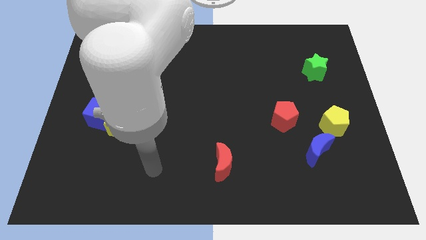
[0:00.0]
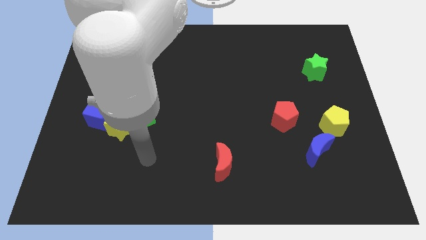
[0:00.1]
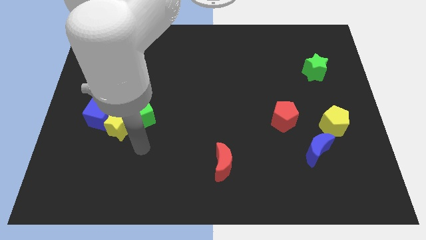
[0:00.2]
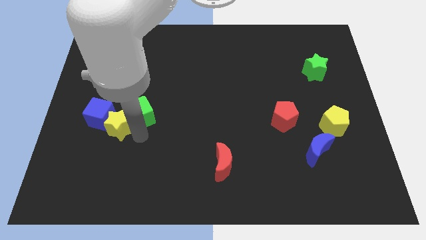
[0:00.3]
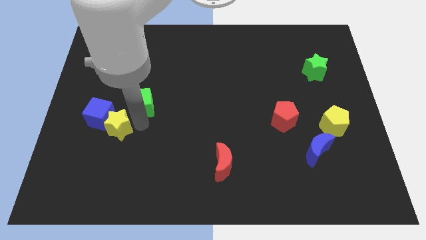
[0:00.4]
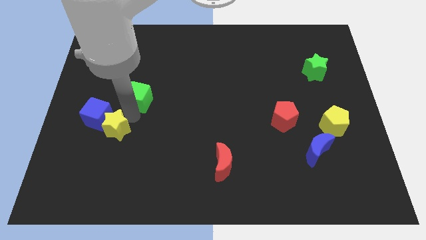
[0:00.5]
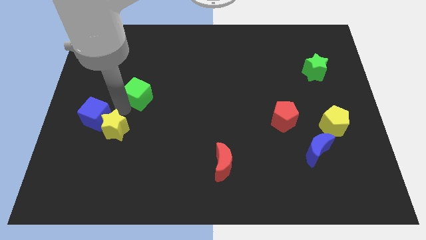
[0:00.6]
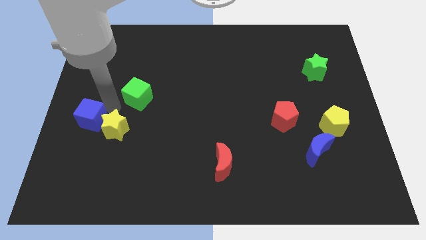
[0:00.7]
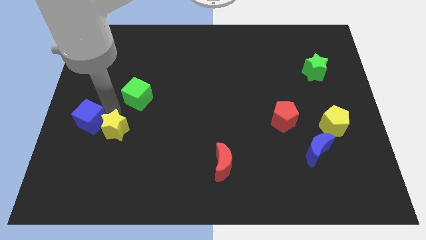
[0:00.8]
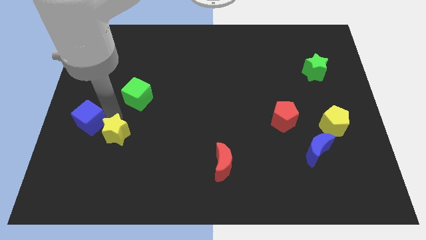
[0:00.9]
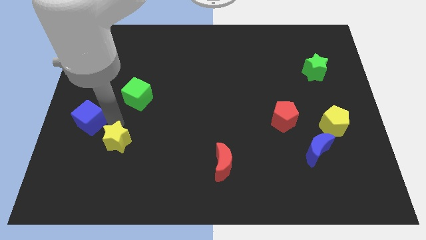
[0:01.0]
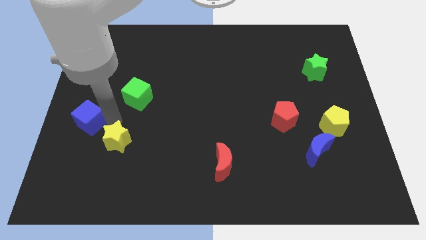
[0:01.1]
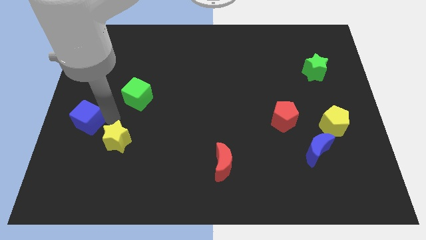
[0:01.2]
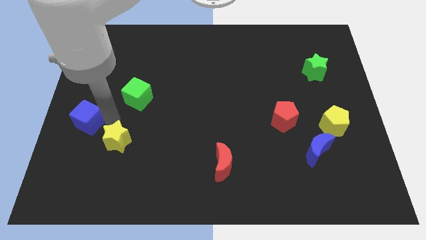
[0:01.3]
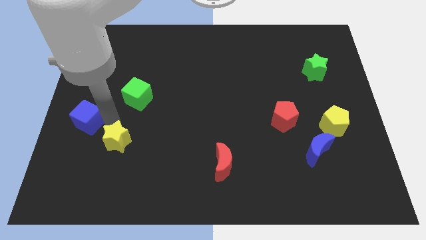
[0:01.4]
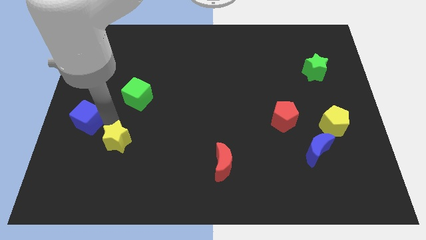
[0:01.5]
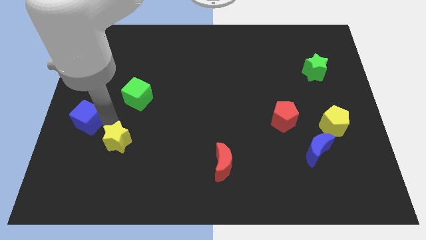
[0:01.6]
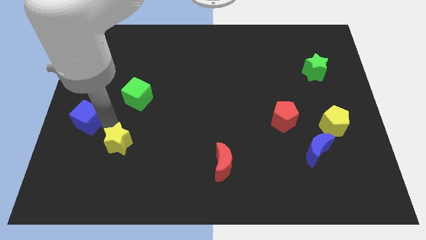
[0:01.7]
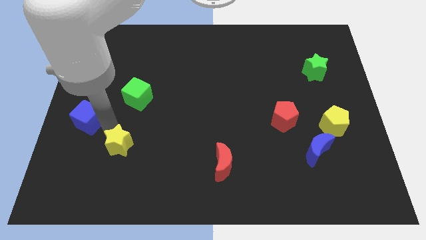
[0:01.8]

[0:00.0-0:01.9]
move the yellow star away from the green cube and blue cube

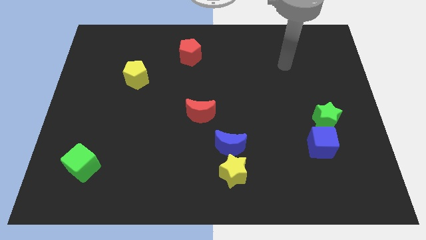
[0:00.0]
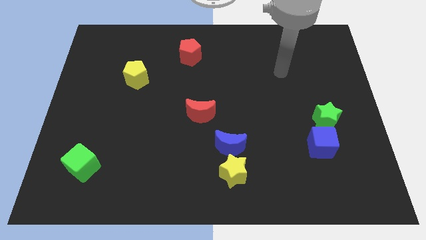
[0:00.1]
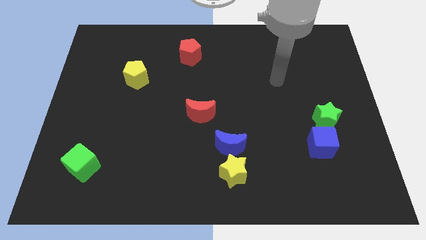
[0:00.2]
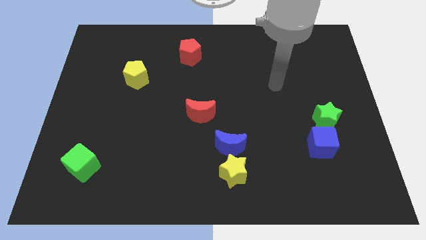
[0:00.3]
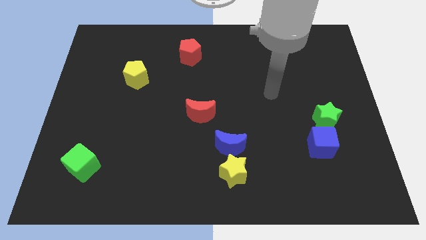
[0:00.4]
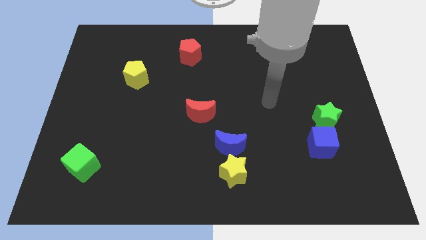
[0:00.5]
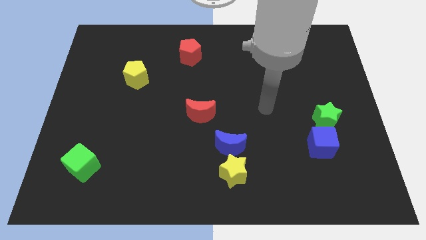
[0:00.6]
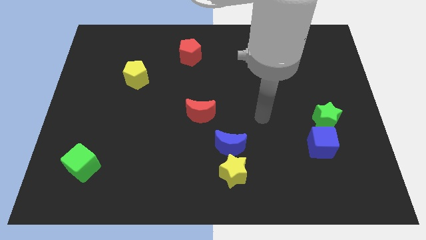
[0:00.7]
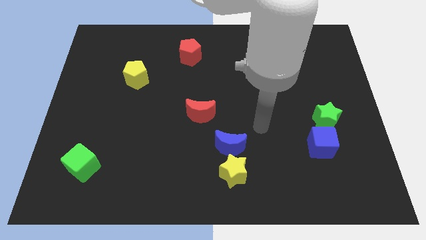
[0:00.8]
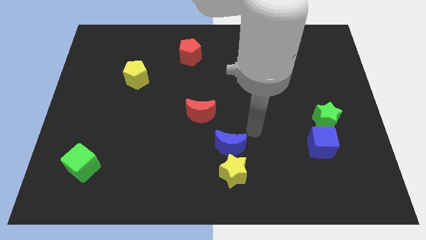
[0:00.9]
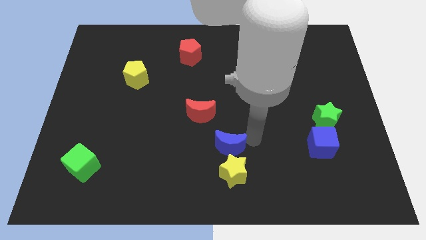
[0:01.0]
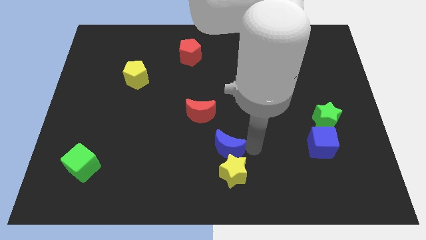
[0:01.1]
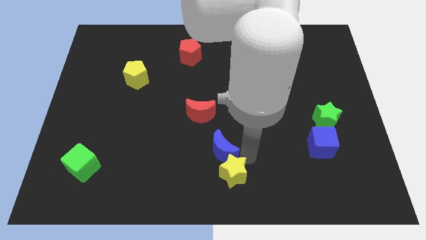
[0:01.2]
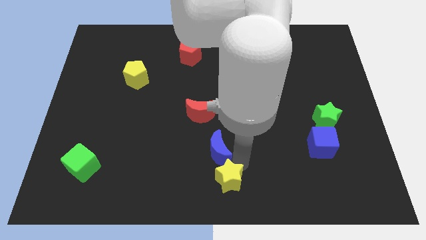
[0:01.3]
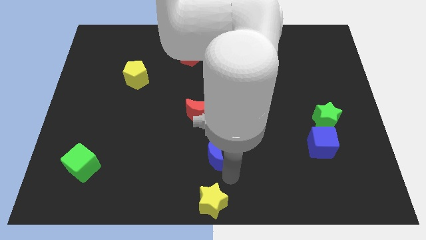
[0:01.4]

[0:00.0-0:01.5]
separate the blue moon from the yellow star

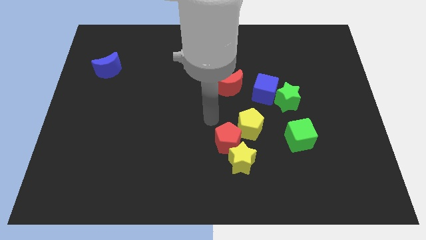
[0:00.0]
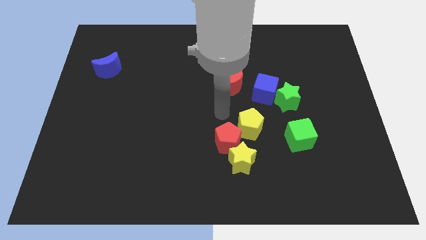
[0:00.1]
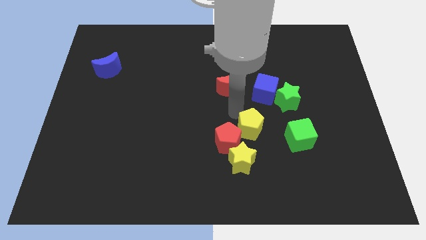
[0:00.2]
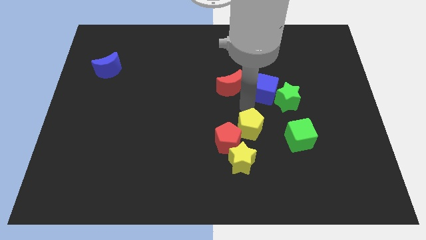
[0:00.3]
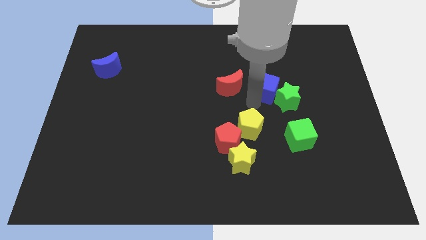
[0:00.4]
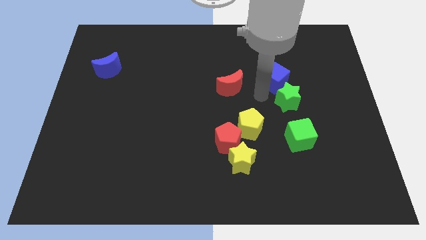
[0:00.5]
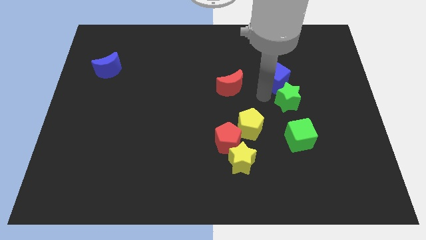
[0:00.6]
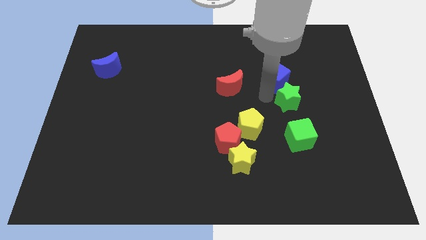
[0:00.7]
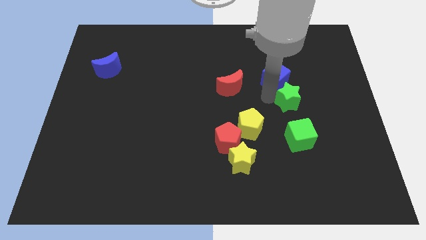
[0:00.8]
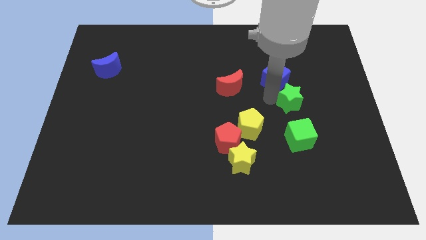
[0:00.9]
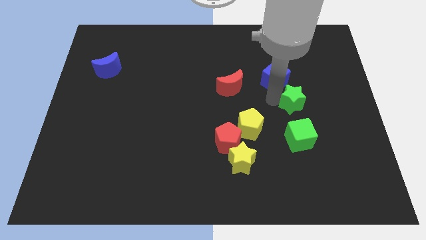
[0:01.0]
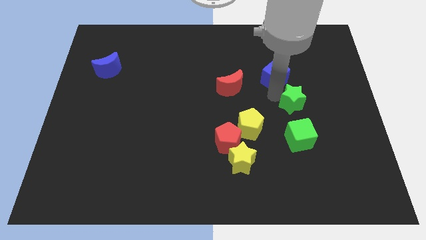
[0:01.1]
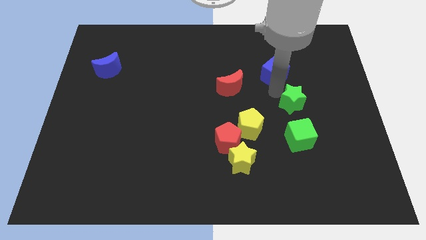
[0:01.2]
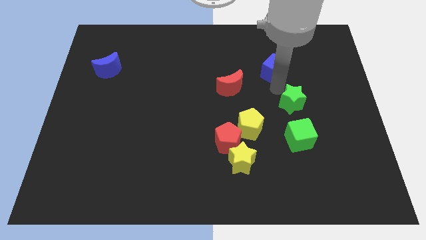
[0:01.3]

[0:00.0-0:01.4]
pull the green star apart from the blue cube

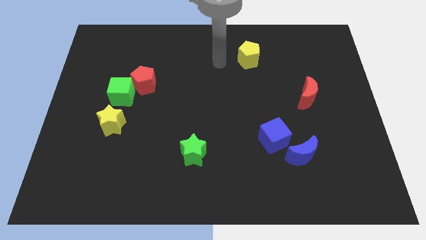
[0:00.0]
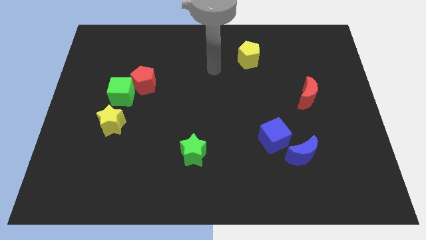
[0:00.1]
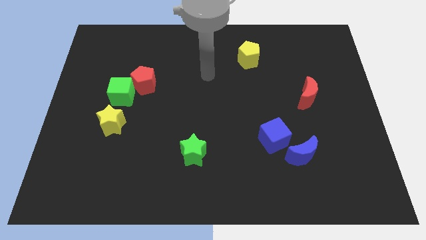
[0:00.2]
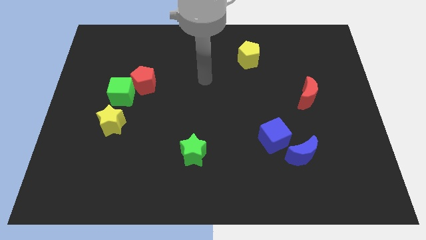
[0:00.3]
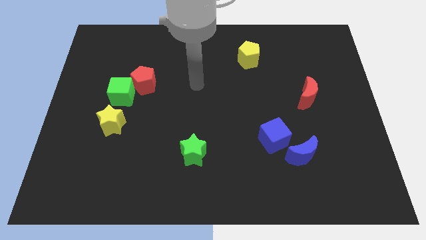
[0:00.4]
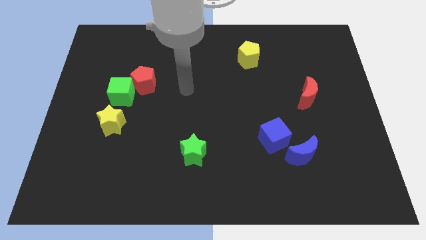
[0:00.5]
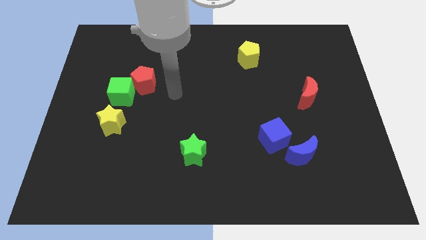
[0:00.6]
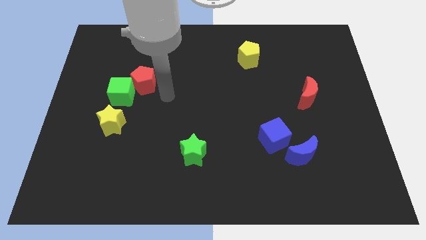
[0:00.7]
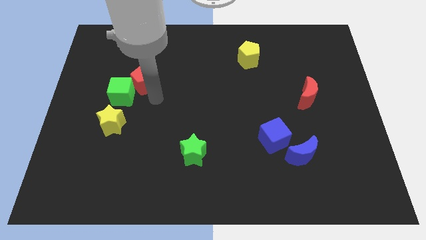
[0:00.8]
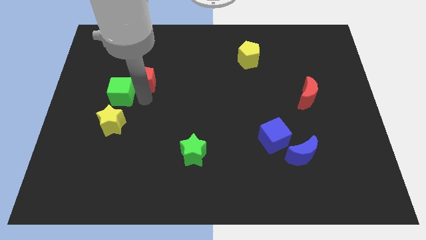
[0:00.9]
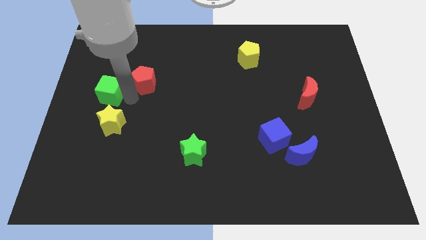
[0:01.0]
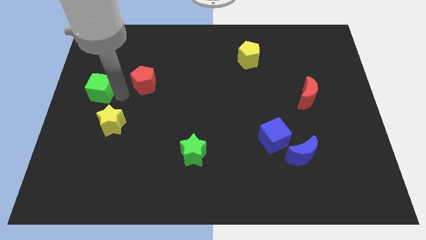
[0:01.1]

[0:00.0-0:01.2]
pull the red pentagon apart from the green cube

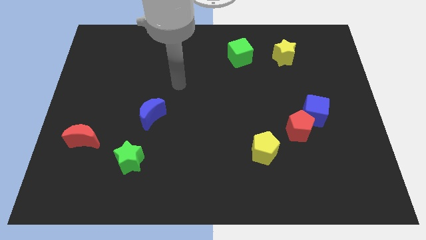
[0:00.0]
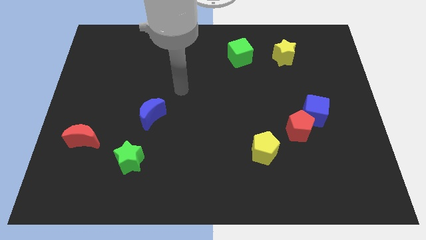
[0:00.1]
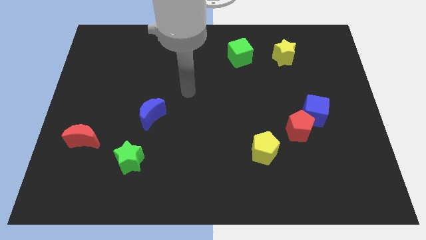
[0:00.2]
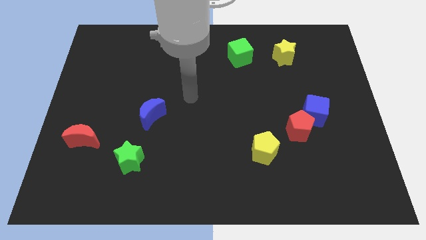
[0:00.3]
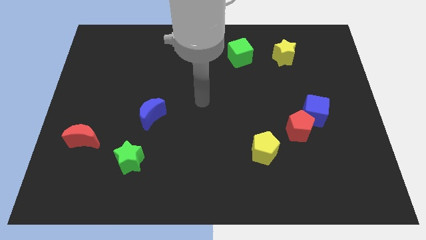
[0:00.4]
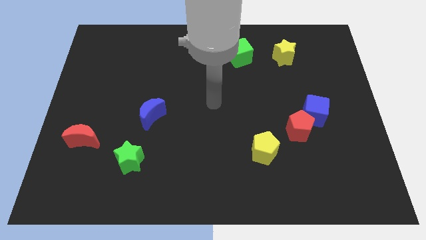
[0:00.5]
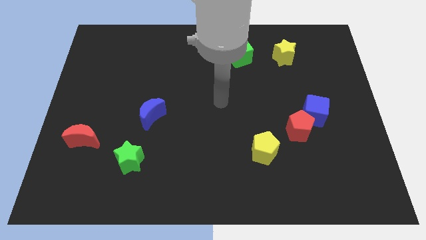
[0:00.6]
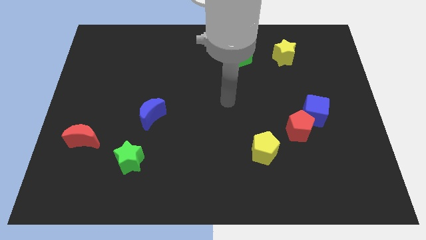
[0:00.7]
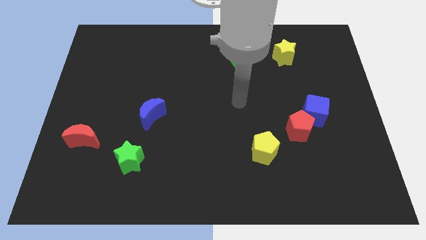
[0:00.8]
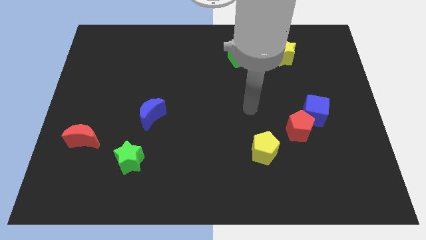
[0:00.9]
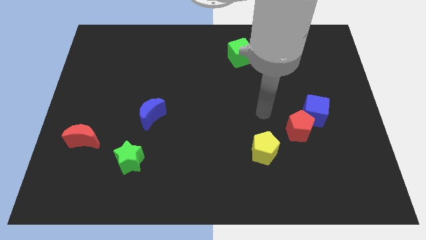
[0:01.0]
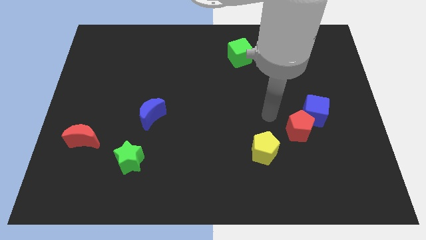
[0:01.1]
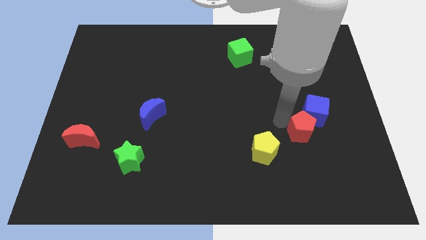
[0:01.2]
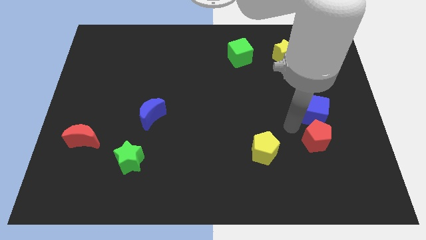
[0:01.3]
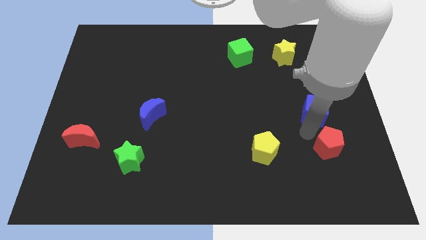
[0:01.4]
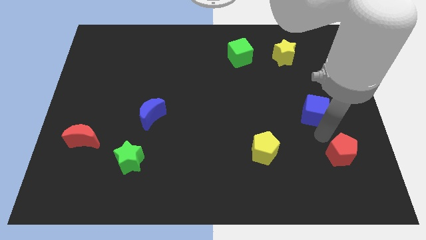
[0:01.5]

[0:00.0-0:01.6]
pull the blue cube apart from the red pentagon

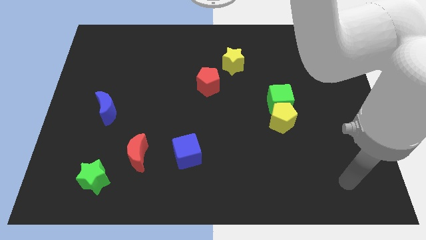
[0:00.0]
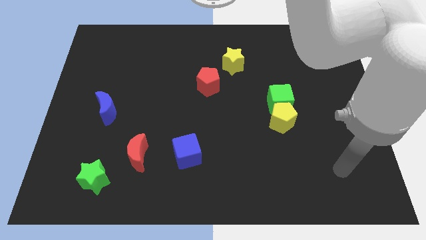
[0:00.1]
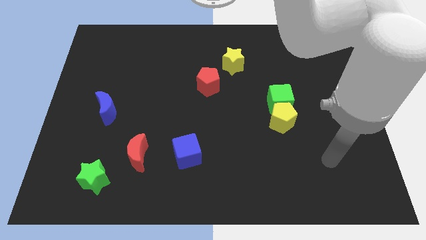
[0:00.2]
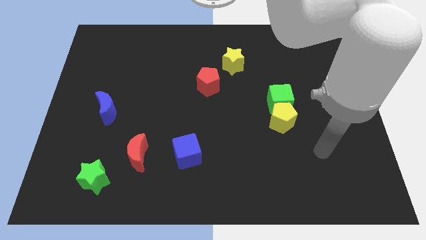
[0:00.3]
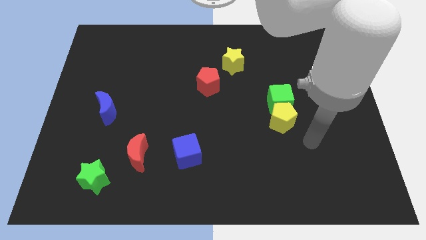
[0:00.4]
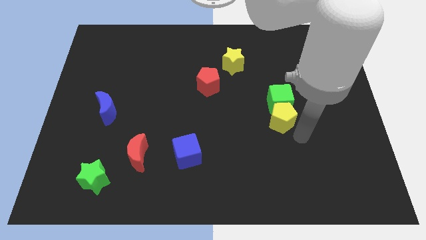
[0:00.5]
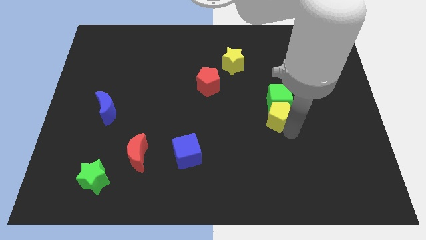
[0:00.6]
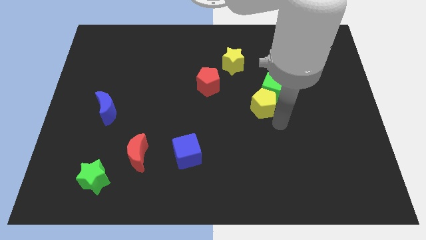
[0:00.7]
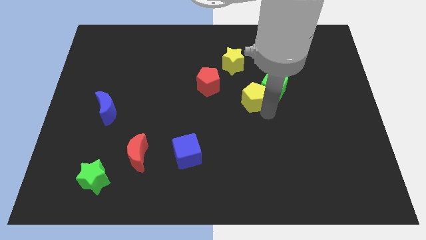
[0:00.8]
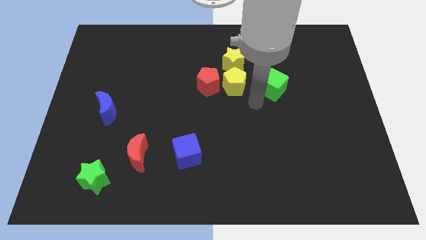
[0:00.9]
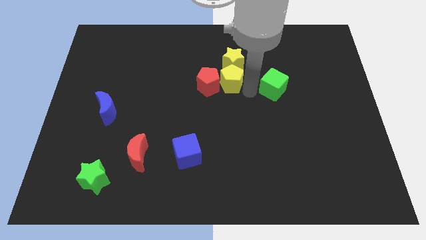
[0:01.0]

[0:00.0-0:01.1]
pull the green cube apart from the yellow pentagon

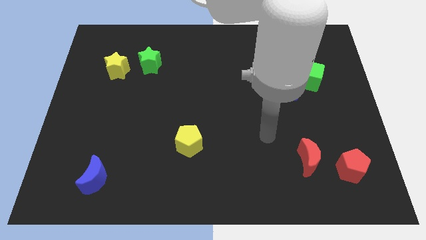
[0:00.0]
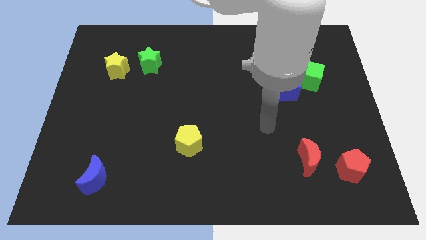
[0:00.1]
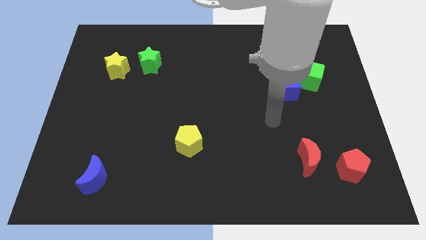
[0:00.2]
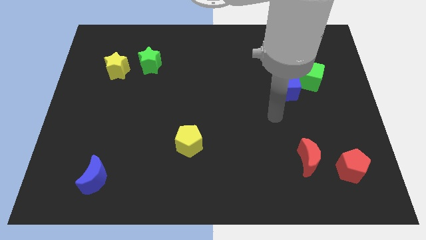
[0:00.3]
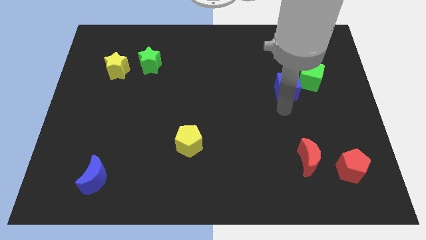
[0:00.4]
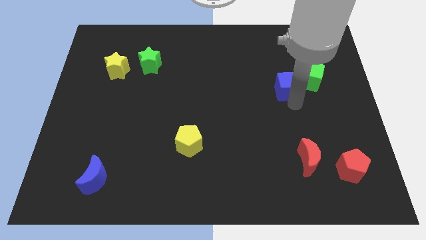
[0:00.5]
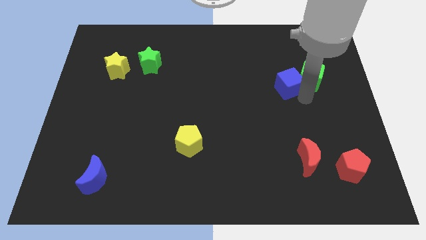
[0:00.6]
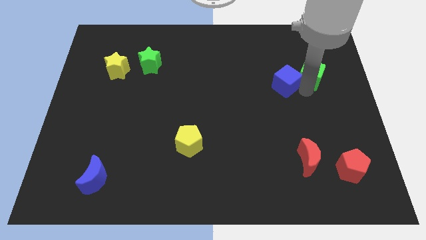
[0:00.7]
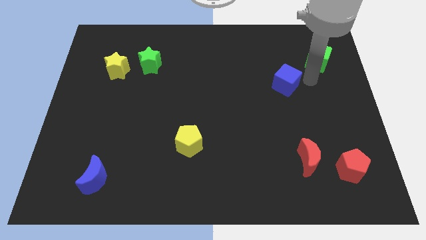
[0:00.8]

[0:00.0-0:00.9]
move the blue cube away from the green cube
